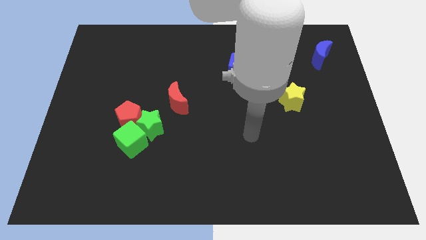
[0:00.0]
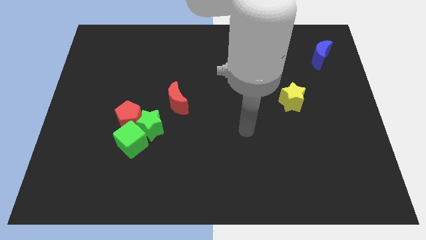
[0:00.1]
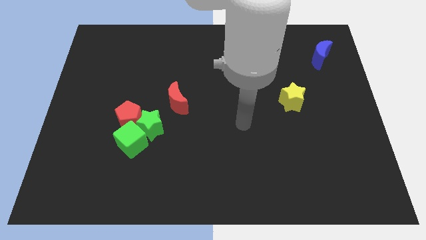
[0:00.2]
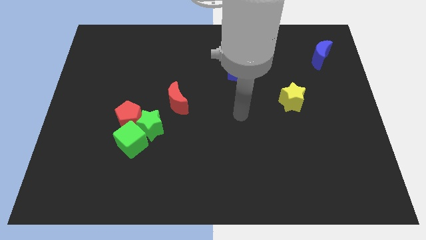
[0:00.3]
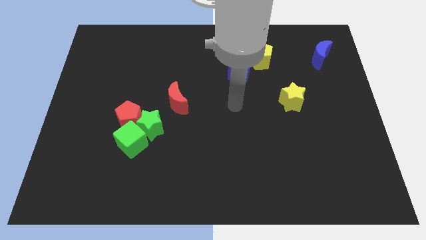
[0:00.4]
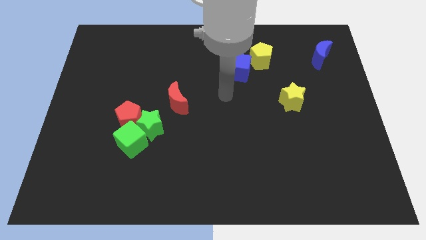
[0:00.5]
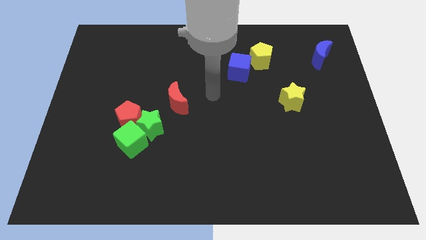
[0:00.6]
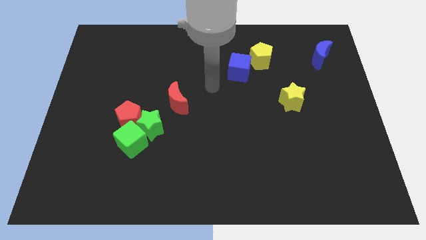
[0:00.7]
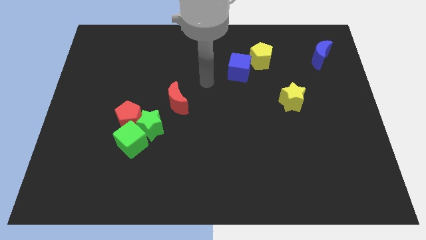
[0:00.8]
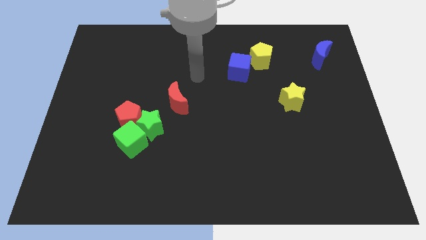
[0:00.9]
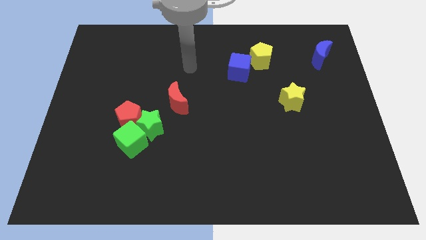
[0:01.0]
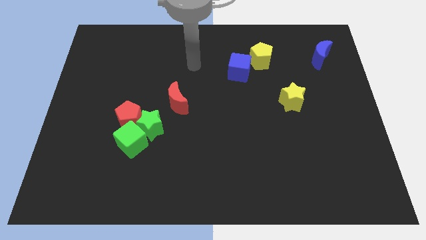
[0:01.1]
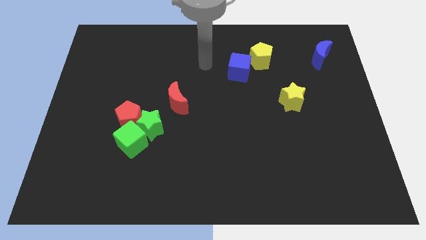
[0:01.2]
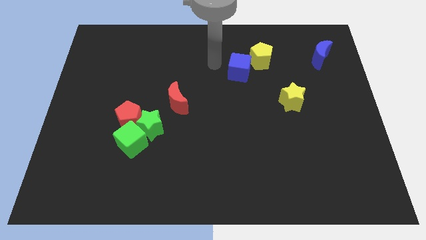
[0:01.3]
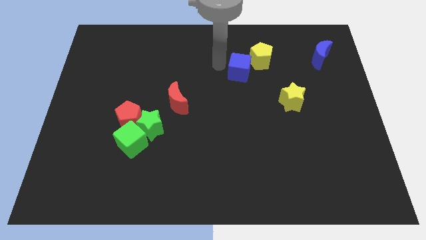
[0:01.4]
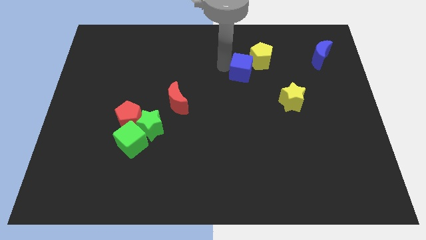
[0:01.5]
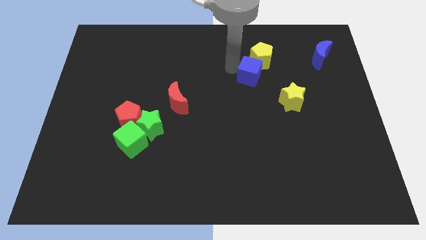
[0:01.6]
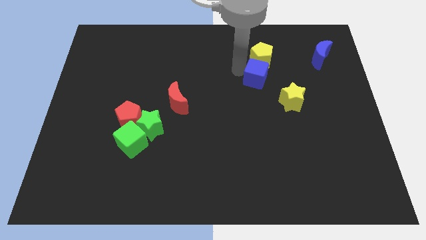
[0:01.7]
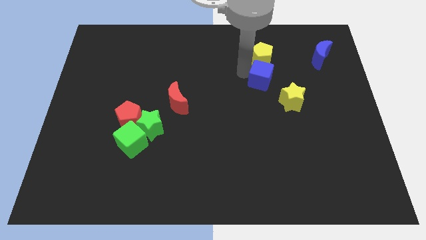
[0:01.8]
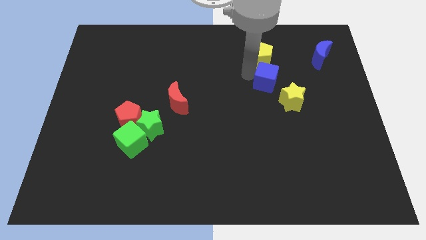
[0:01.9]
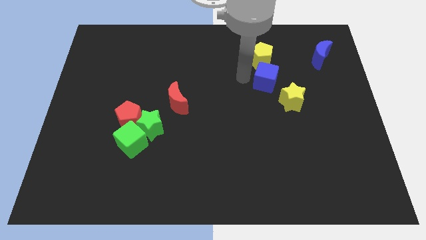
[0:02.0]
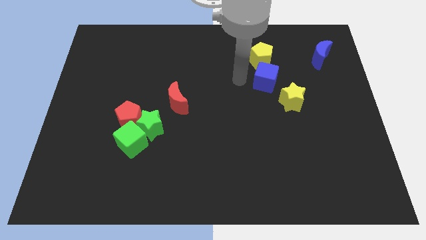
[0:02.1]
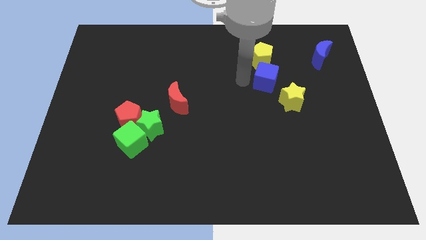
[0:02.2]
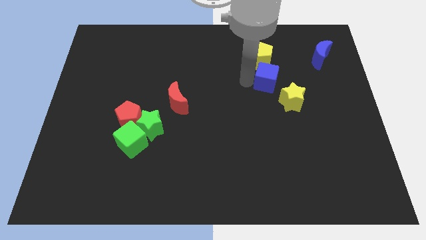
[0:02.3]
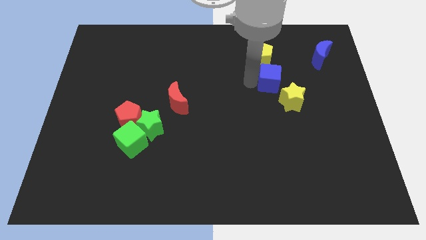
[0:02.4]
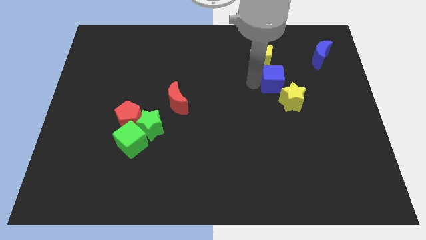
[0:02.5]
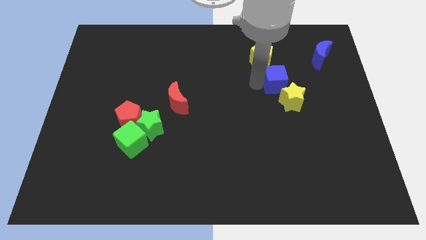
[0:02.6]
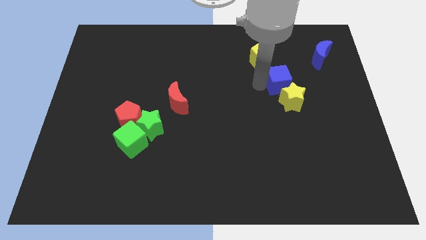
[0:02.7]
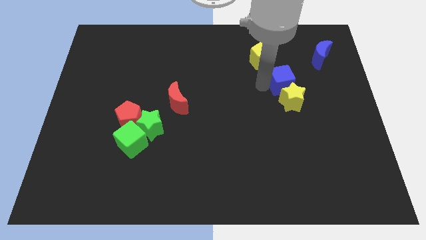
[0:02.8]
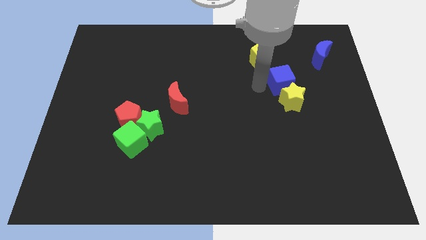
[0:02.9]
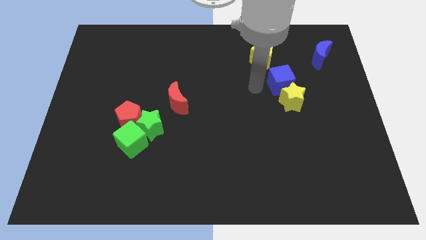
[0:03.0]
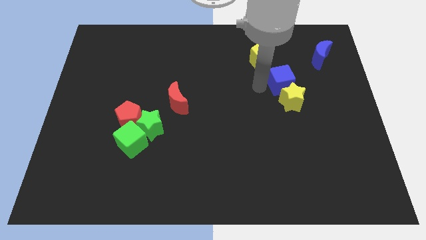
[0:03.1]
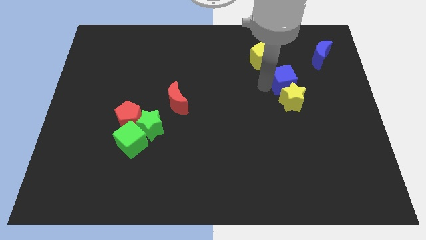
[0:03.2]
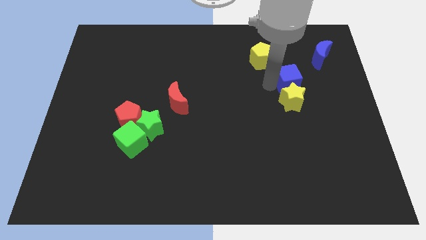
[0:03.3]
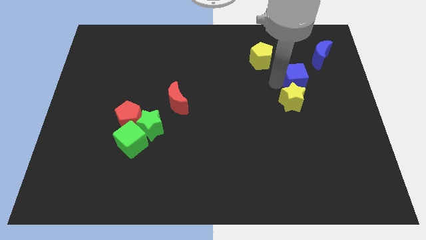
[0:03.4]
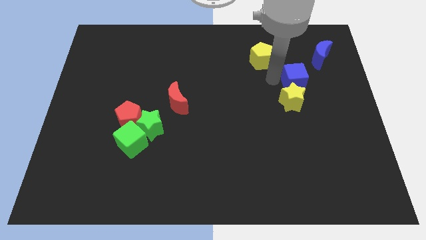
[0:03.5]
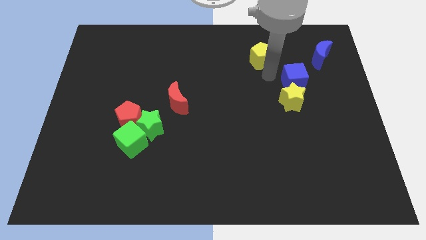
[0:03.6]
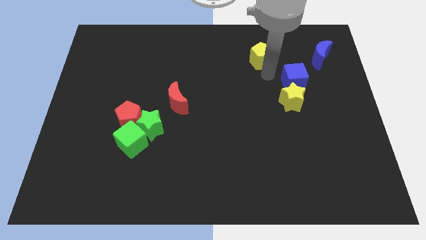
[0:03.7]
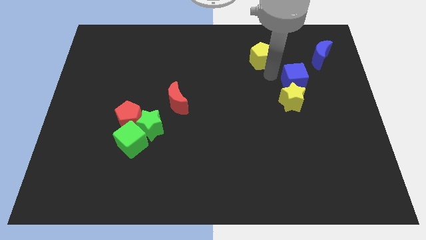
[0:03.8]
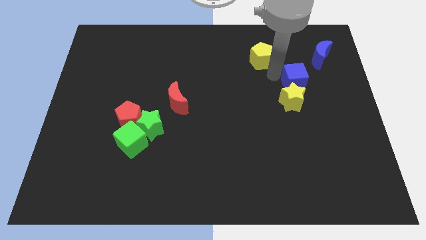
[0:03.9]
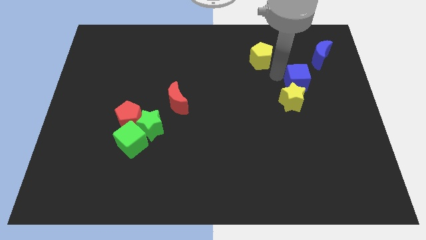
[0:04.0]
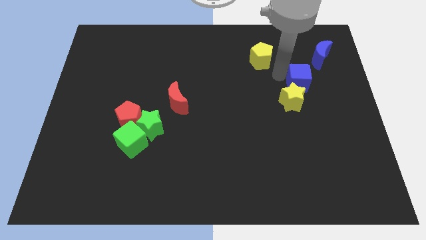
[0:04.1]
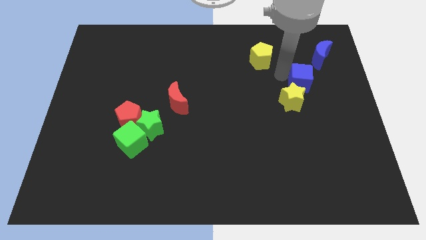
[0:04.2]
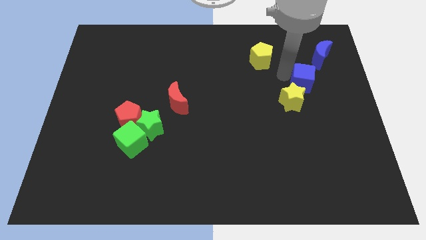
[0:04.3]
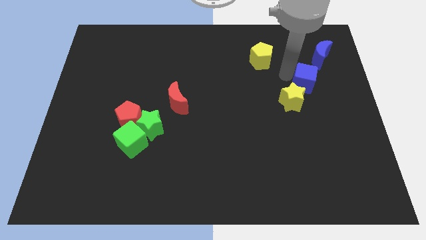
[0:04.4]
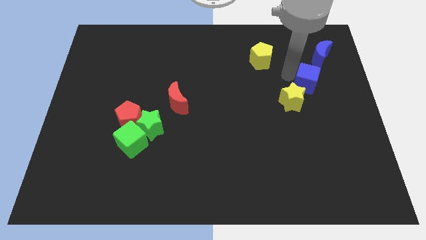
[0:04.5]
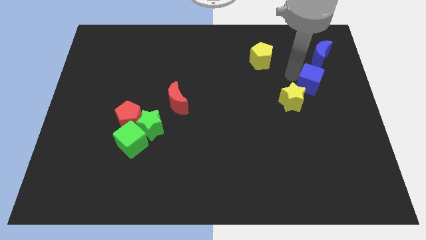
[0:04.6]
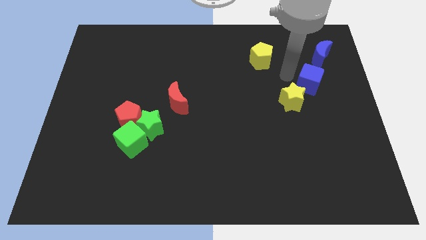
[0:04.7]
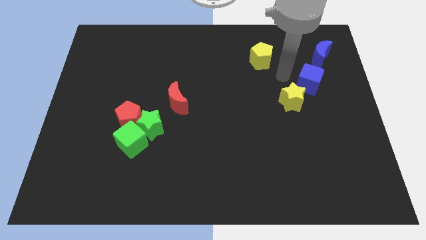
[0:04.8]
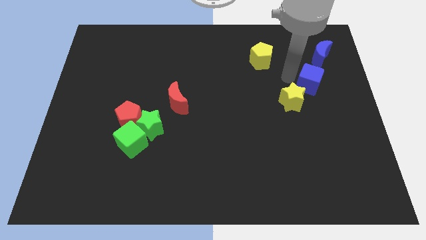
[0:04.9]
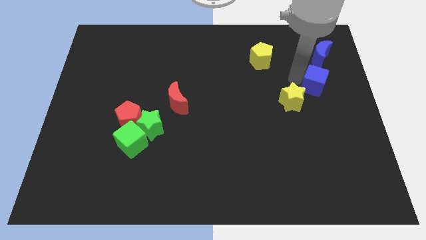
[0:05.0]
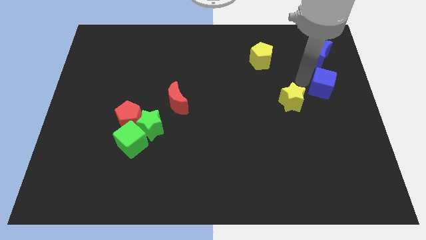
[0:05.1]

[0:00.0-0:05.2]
push the blue cube to the right side

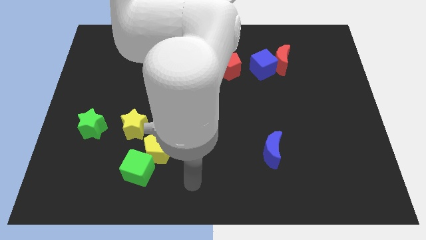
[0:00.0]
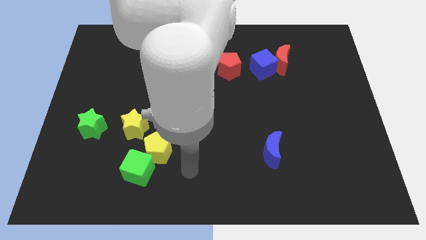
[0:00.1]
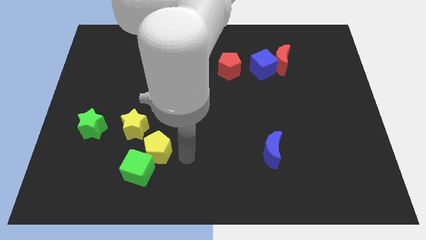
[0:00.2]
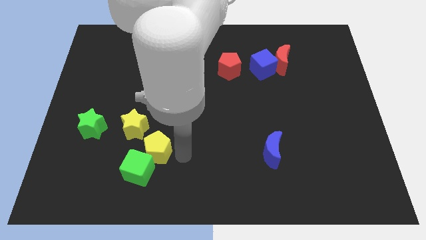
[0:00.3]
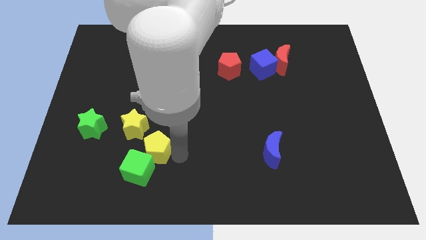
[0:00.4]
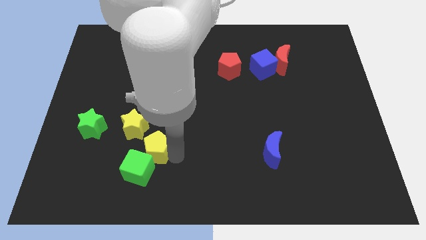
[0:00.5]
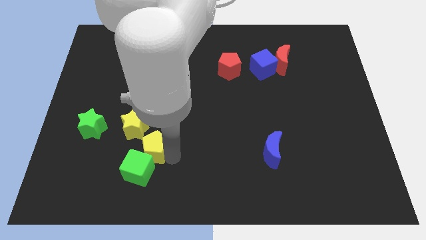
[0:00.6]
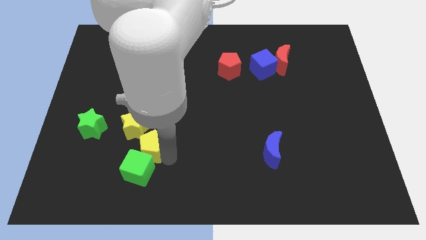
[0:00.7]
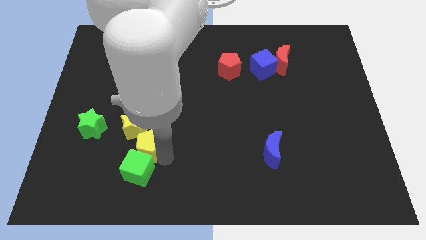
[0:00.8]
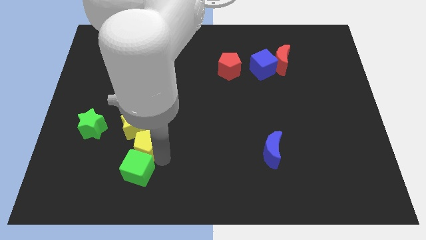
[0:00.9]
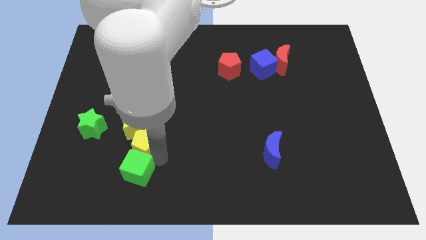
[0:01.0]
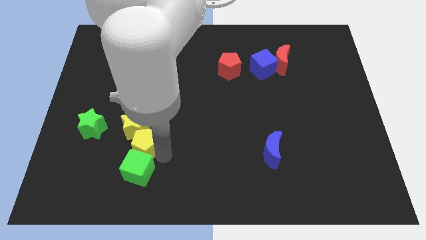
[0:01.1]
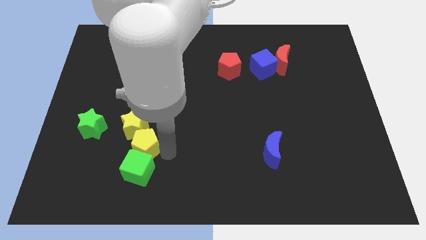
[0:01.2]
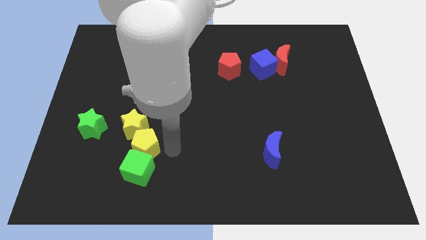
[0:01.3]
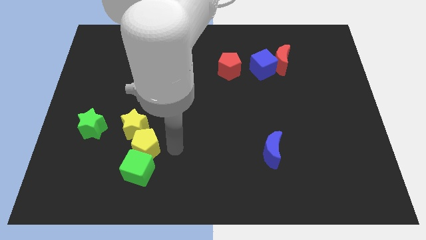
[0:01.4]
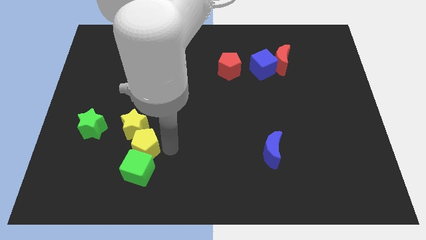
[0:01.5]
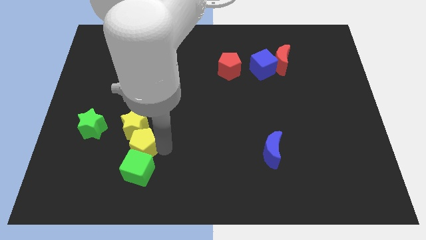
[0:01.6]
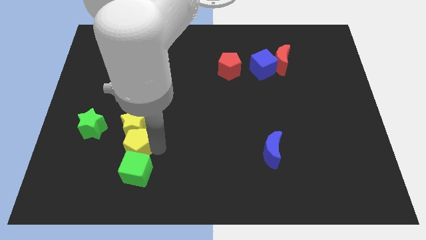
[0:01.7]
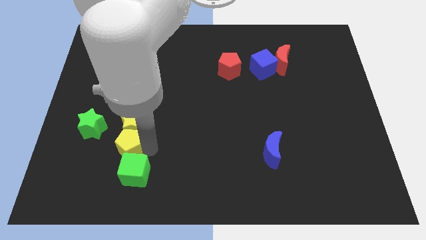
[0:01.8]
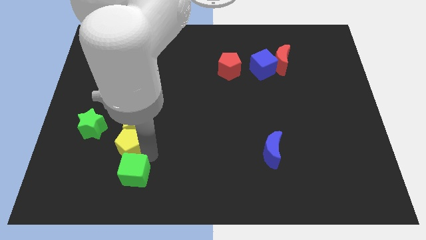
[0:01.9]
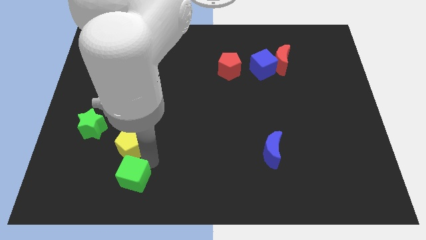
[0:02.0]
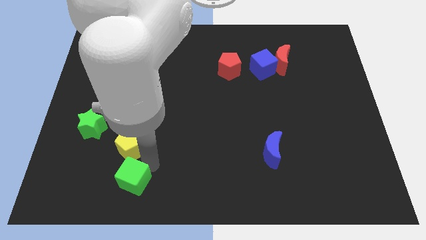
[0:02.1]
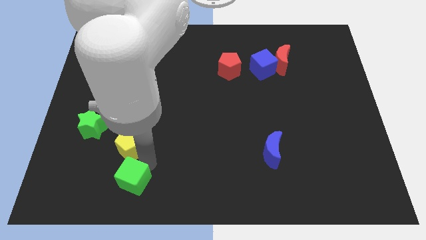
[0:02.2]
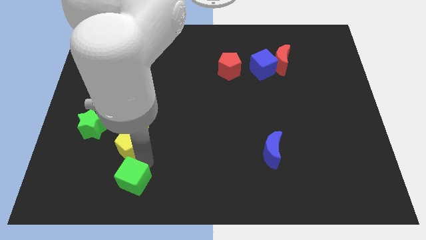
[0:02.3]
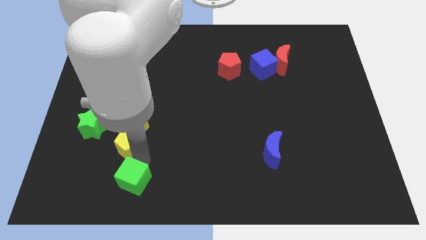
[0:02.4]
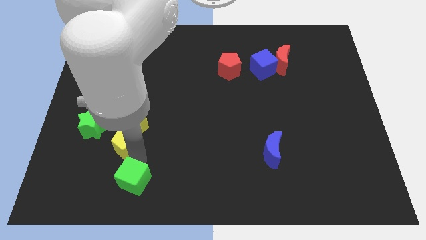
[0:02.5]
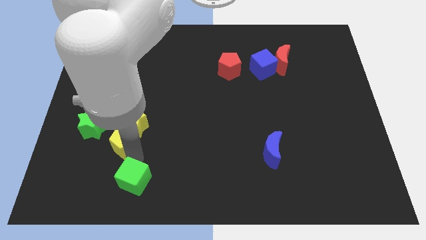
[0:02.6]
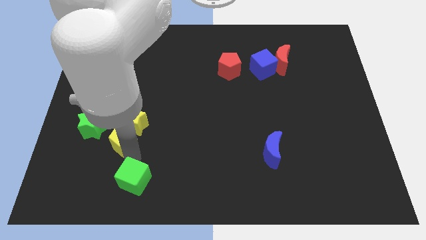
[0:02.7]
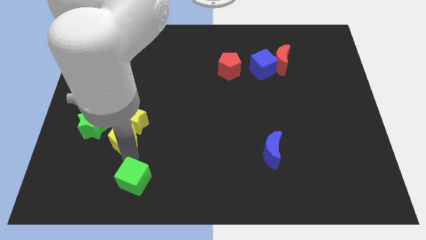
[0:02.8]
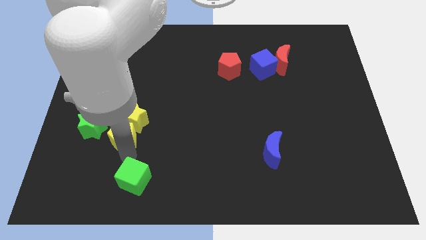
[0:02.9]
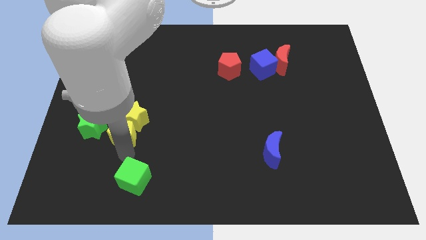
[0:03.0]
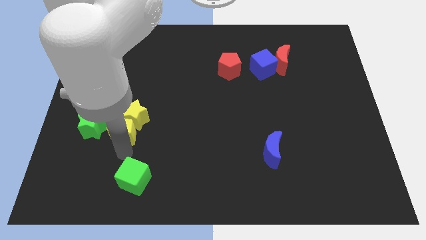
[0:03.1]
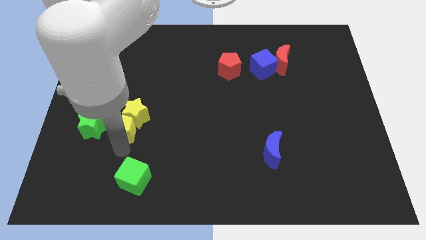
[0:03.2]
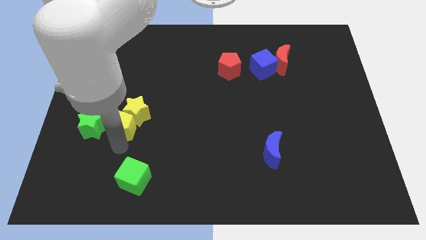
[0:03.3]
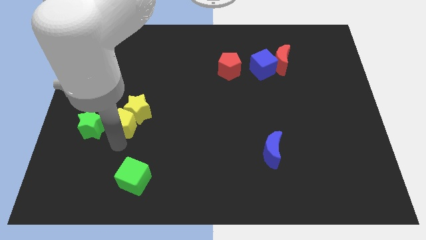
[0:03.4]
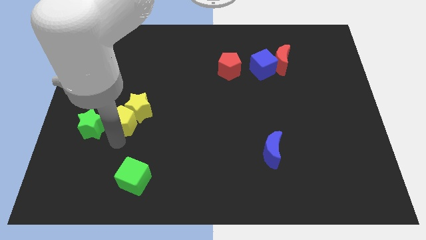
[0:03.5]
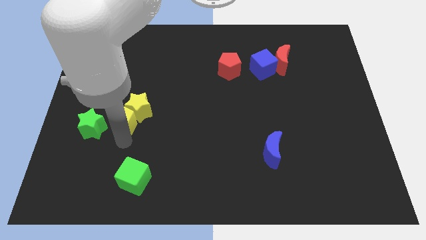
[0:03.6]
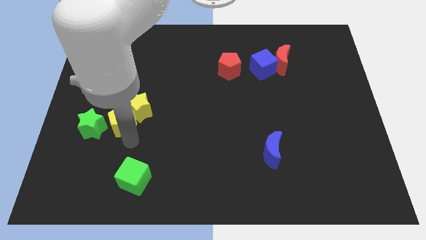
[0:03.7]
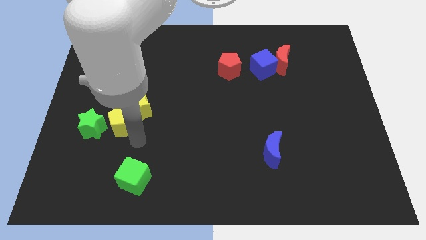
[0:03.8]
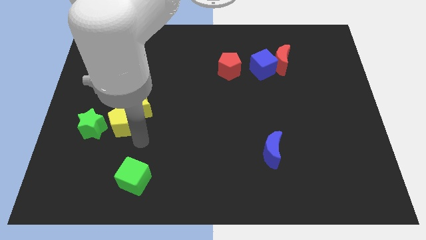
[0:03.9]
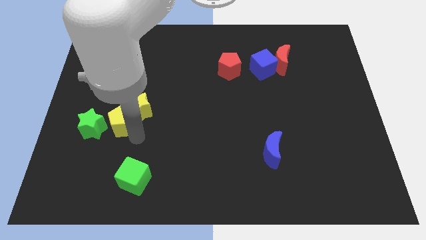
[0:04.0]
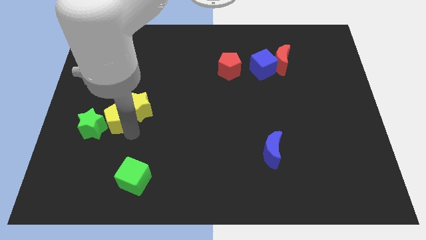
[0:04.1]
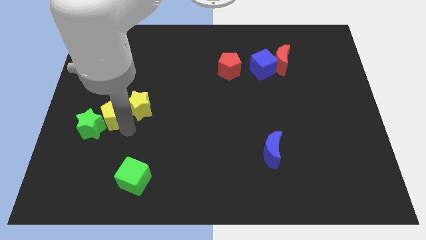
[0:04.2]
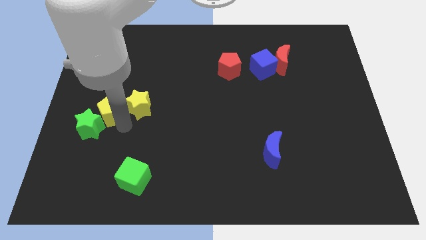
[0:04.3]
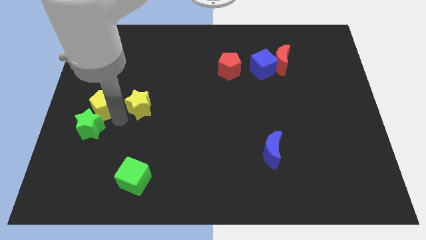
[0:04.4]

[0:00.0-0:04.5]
push the yellow pentagon to the left side of the board
